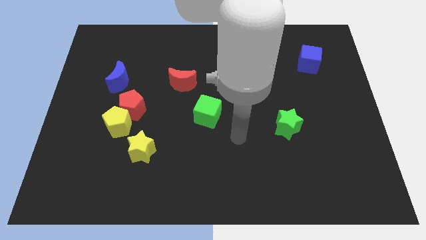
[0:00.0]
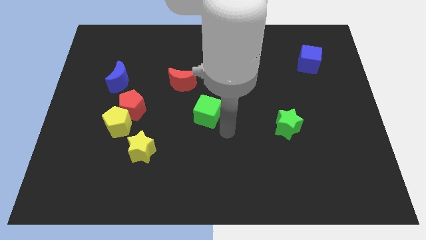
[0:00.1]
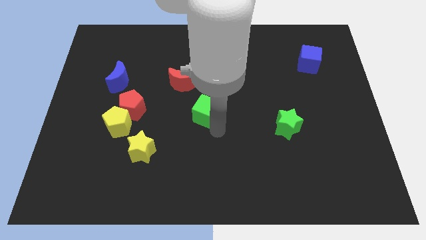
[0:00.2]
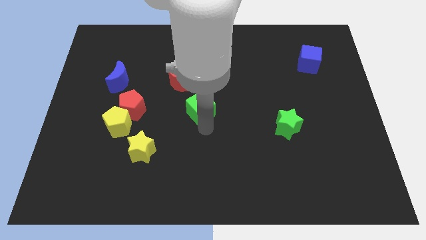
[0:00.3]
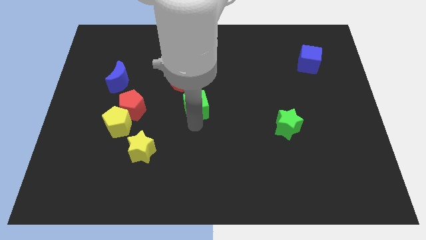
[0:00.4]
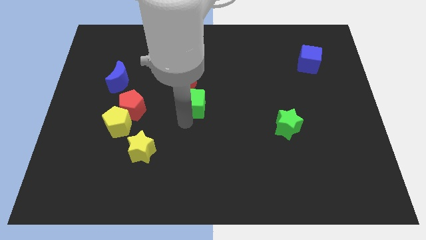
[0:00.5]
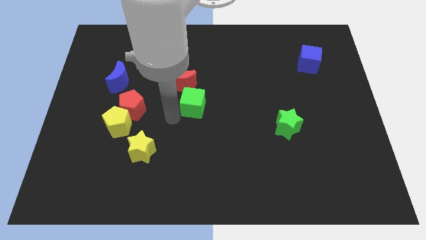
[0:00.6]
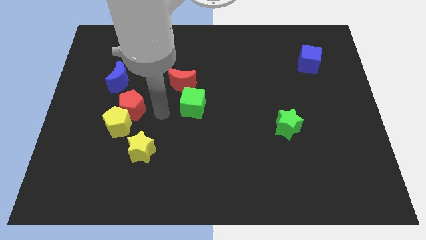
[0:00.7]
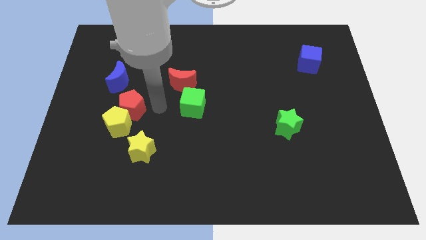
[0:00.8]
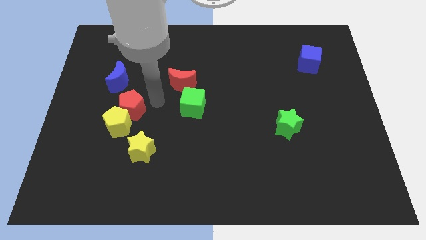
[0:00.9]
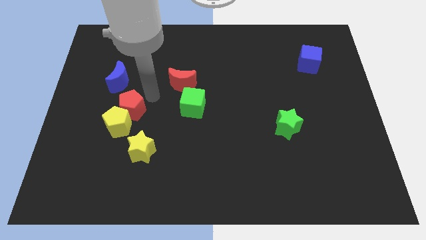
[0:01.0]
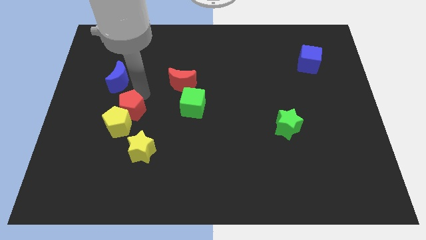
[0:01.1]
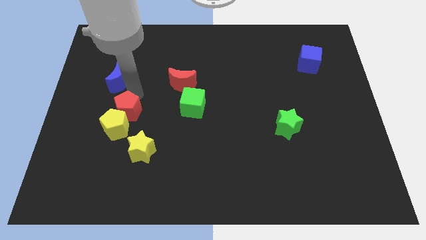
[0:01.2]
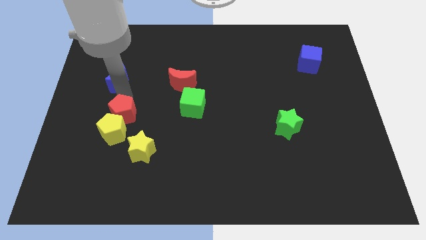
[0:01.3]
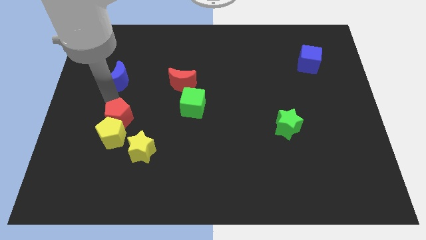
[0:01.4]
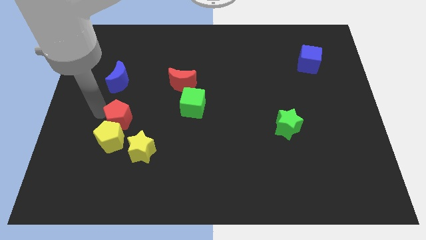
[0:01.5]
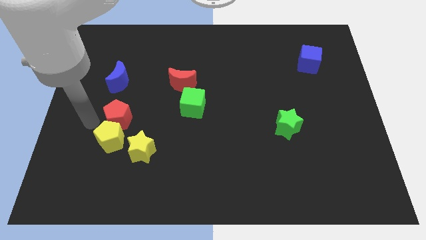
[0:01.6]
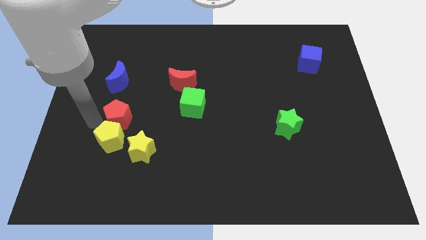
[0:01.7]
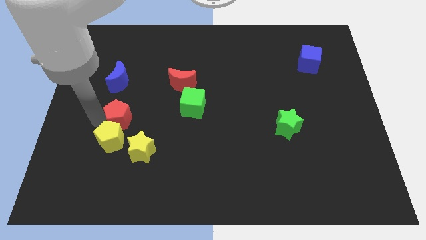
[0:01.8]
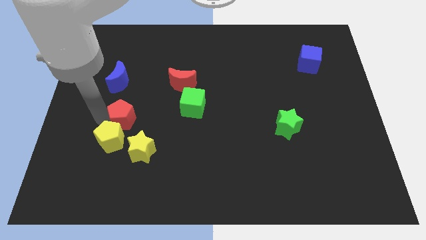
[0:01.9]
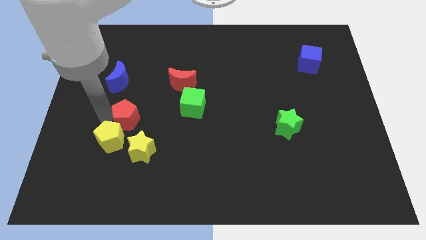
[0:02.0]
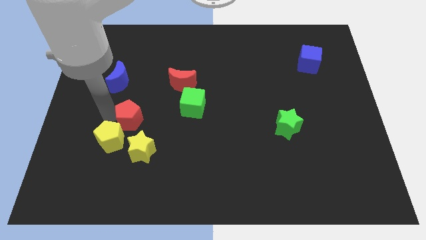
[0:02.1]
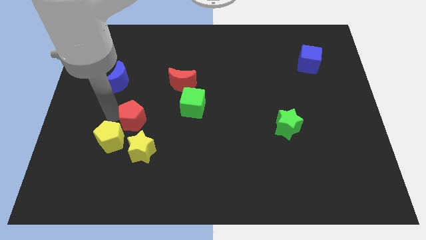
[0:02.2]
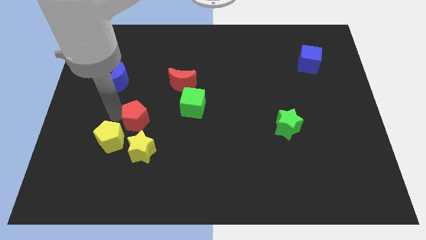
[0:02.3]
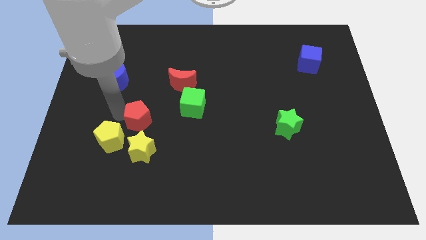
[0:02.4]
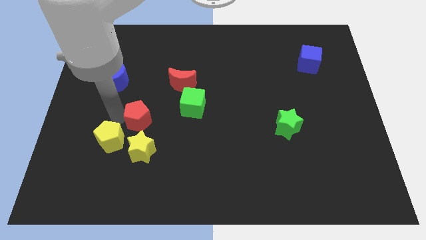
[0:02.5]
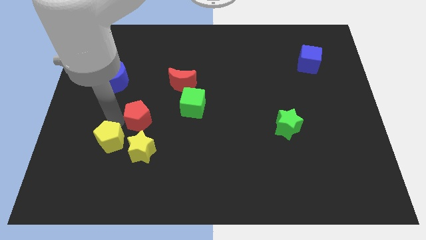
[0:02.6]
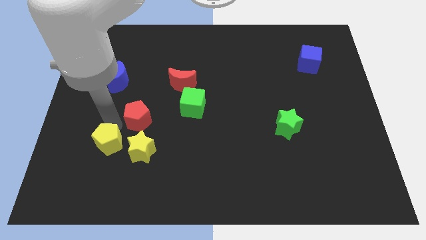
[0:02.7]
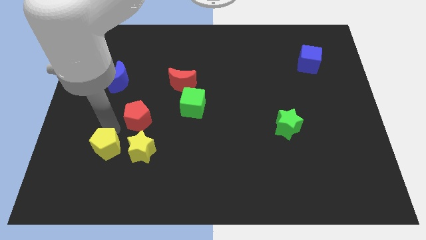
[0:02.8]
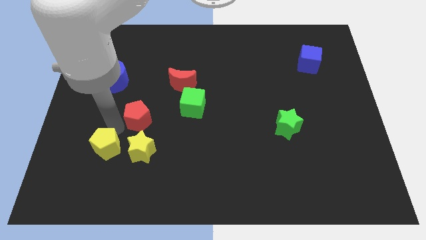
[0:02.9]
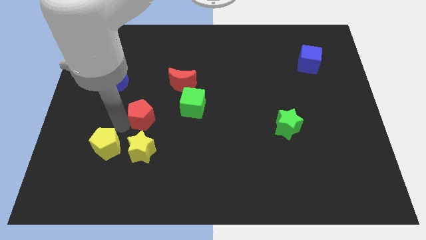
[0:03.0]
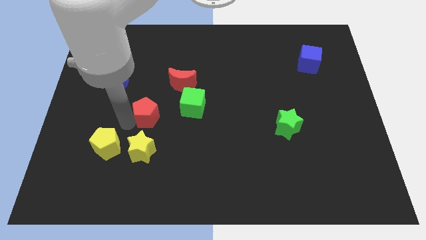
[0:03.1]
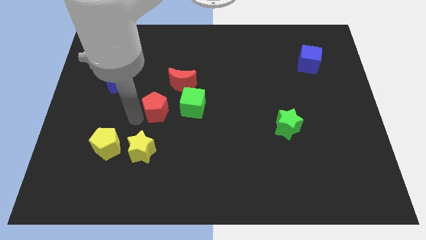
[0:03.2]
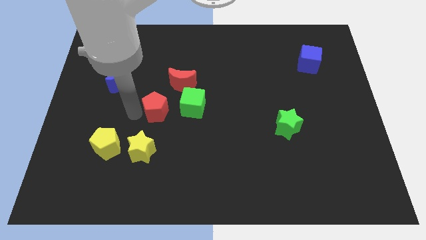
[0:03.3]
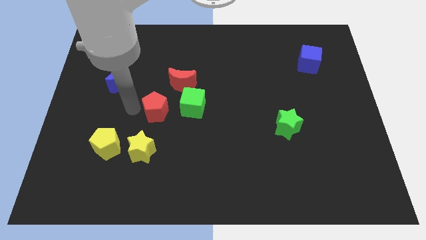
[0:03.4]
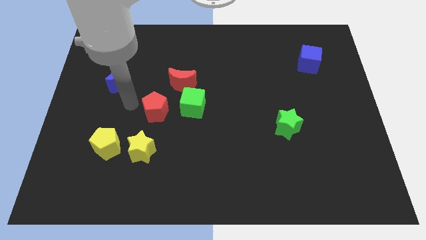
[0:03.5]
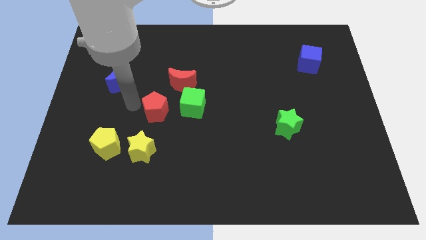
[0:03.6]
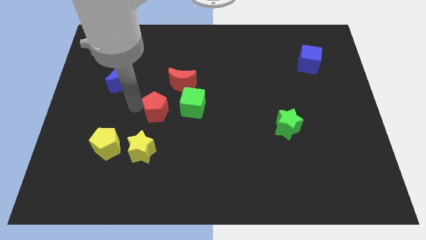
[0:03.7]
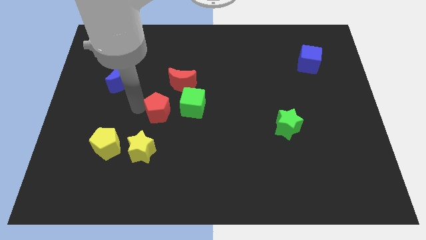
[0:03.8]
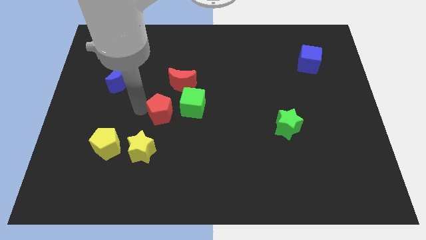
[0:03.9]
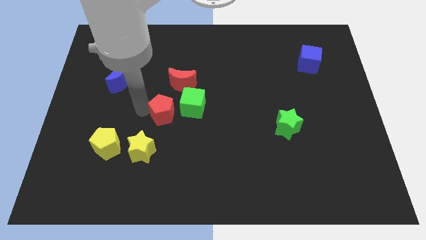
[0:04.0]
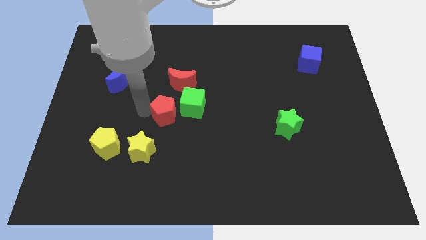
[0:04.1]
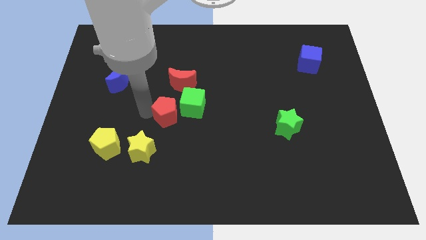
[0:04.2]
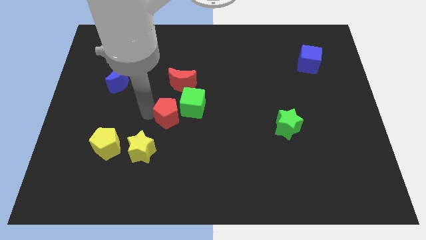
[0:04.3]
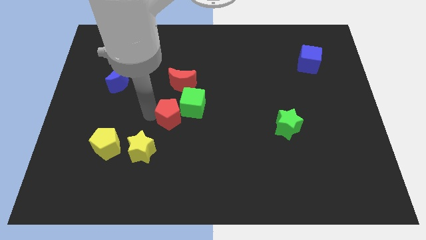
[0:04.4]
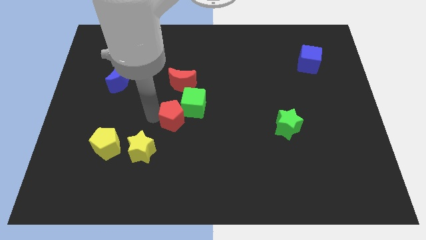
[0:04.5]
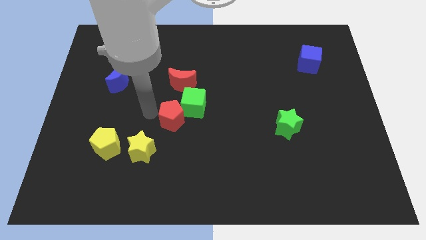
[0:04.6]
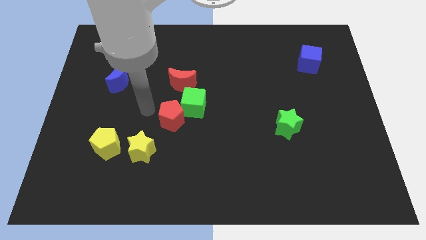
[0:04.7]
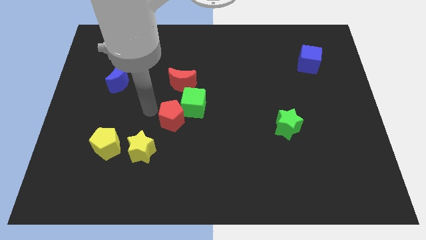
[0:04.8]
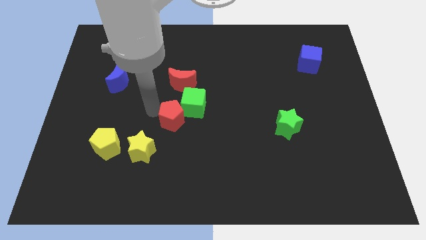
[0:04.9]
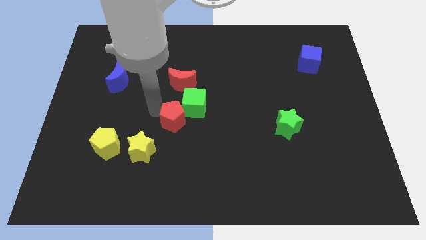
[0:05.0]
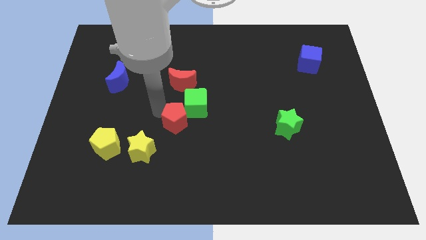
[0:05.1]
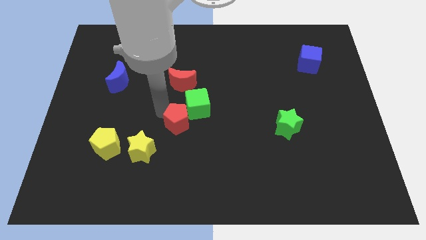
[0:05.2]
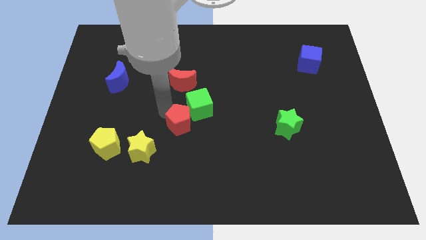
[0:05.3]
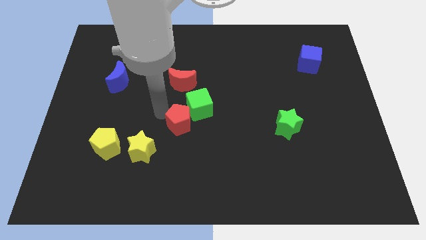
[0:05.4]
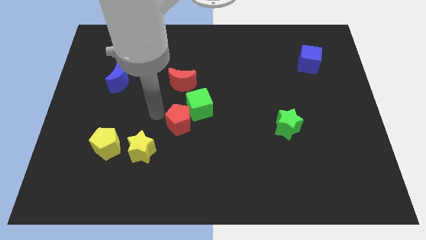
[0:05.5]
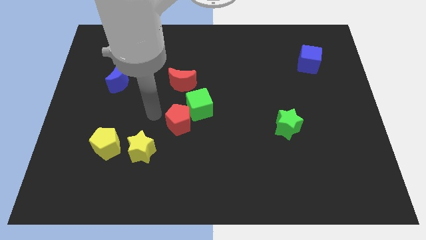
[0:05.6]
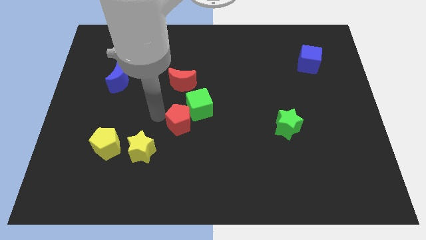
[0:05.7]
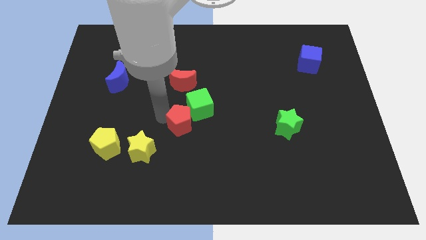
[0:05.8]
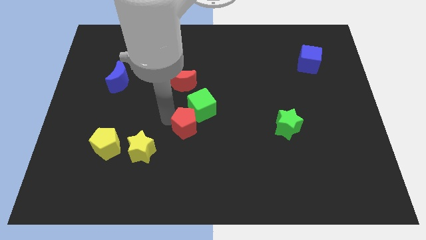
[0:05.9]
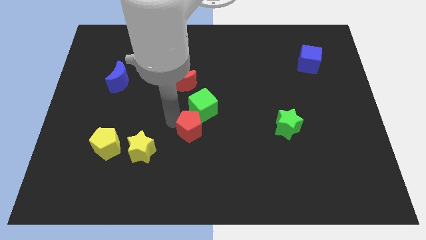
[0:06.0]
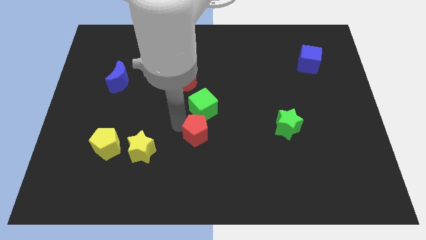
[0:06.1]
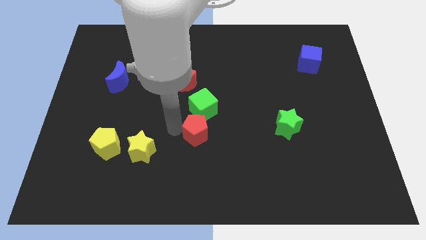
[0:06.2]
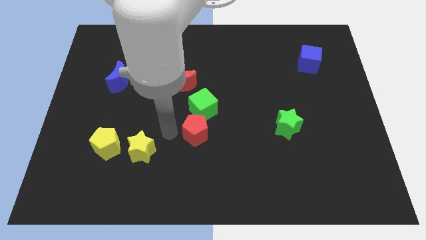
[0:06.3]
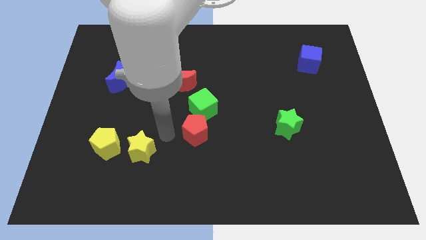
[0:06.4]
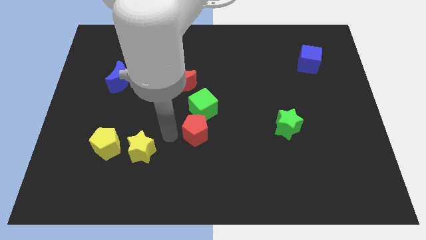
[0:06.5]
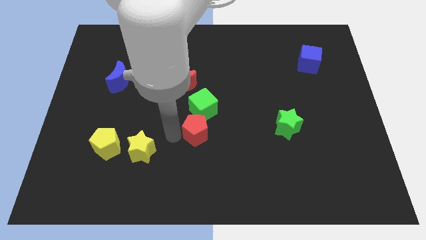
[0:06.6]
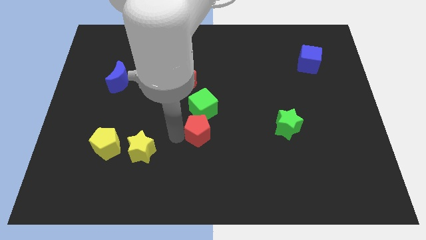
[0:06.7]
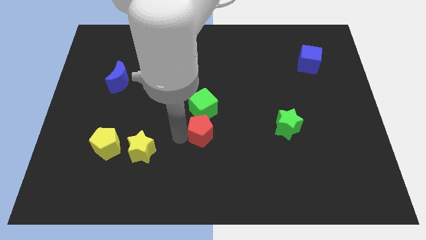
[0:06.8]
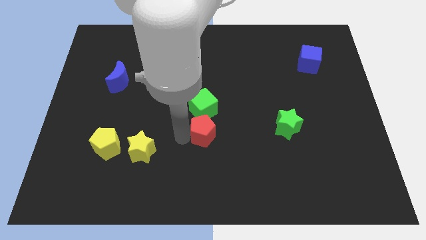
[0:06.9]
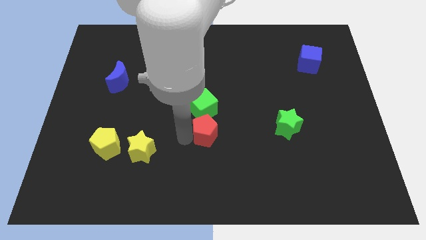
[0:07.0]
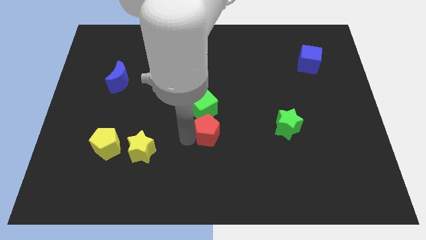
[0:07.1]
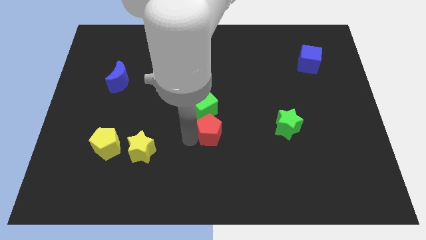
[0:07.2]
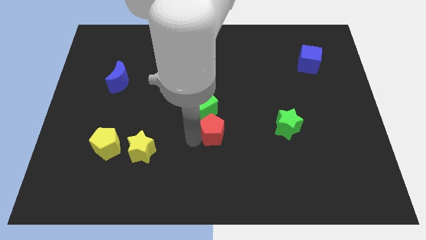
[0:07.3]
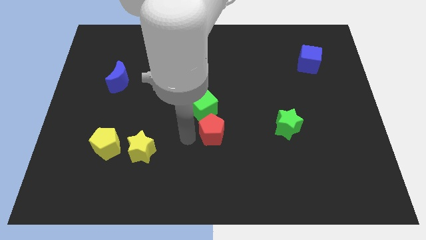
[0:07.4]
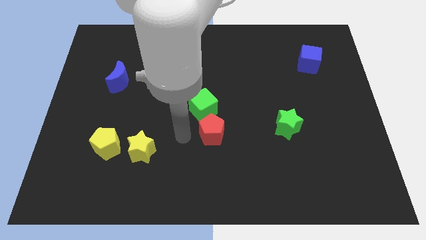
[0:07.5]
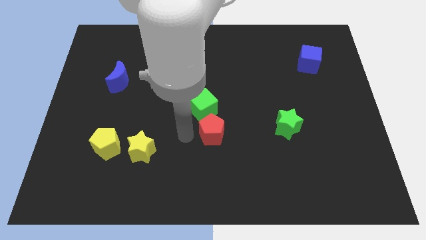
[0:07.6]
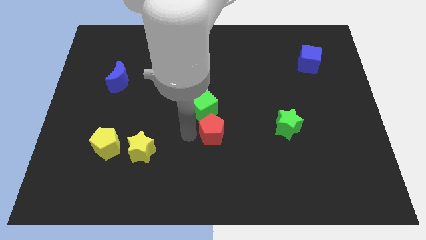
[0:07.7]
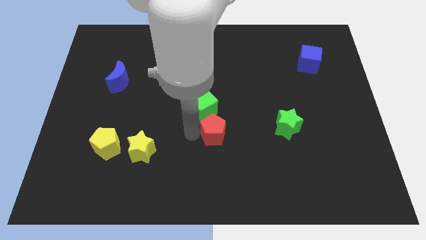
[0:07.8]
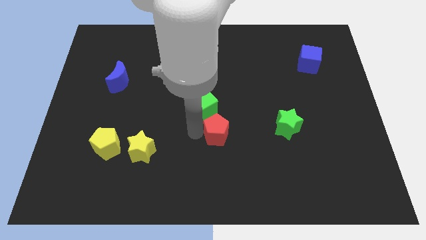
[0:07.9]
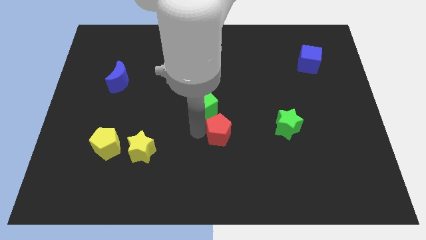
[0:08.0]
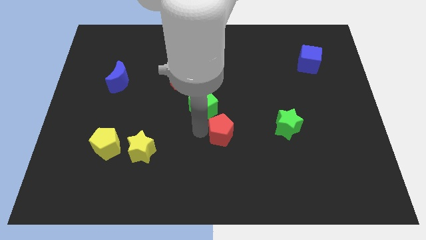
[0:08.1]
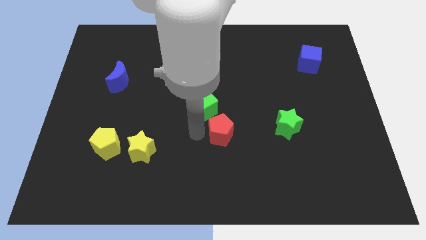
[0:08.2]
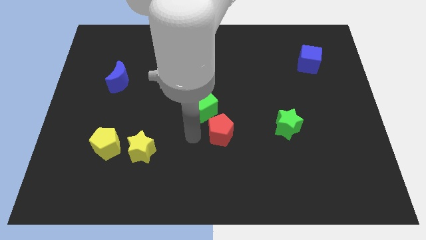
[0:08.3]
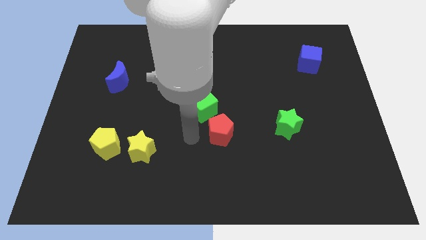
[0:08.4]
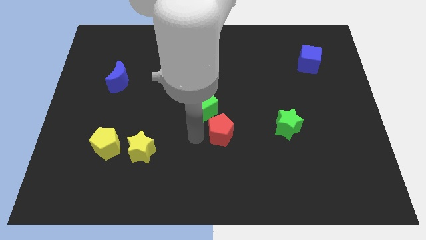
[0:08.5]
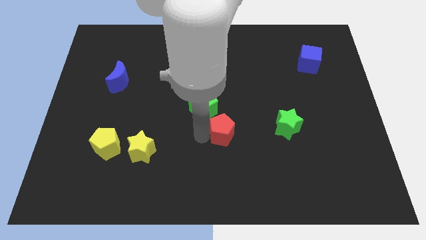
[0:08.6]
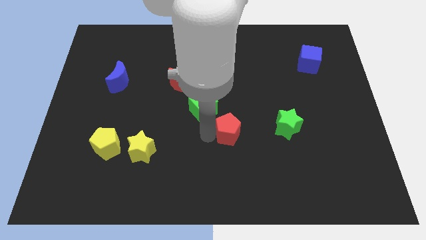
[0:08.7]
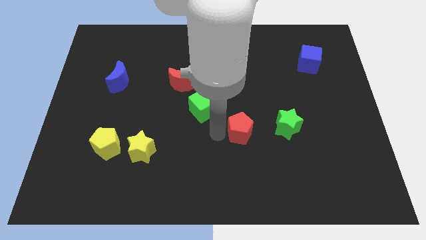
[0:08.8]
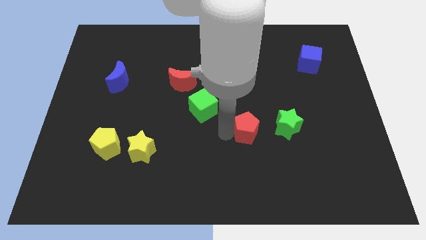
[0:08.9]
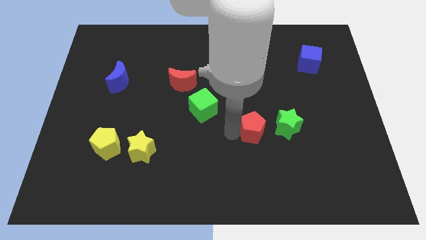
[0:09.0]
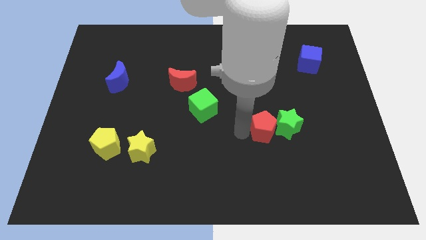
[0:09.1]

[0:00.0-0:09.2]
move the red pentagon close to the green star
